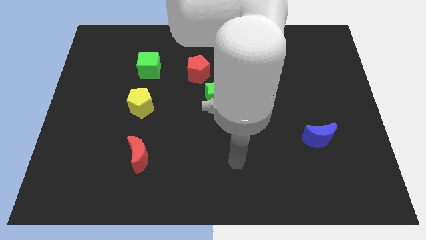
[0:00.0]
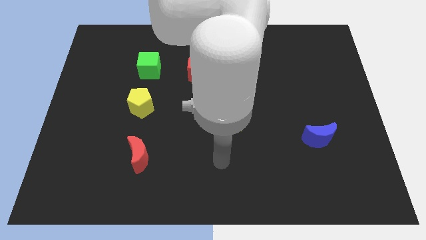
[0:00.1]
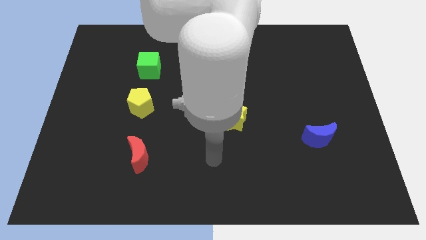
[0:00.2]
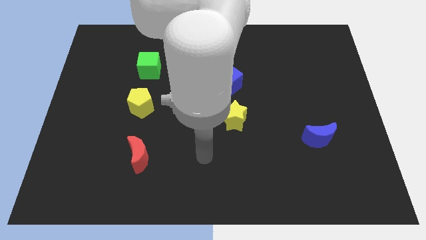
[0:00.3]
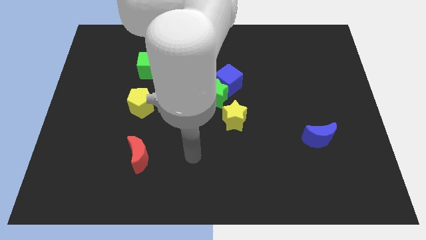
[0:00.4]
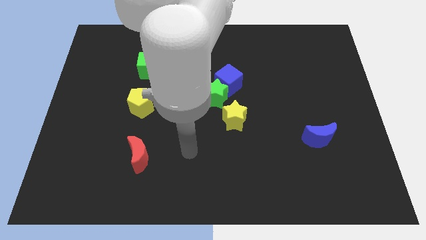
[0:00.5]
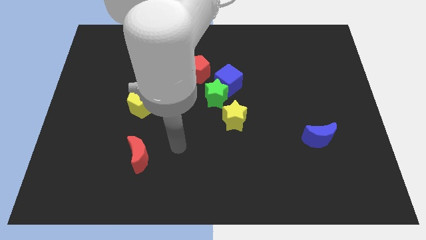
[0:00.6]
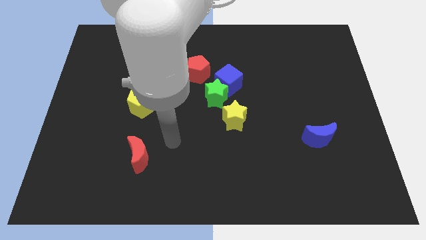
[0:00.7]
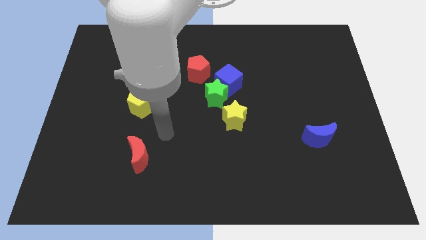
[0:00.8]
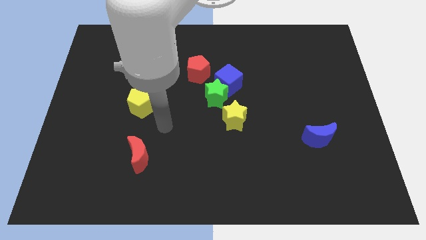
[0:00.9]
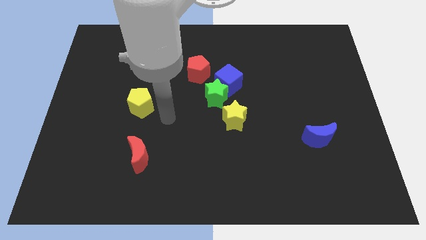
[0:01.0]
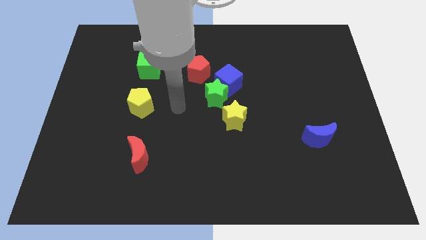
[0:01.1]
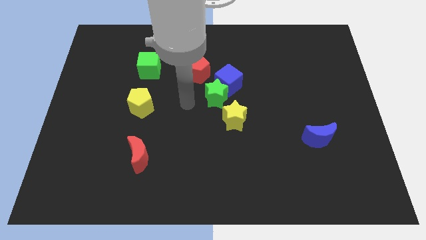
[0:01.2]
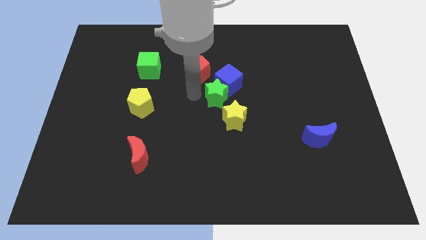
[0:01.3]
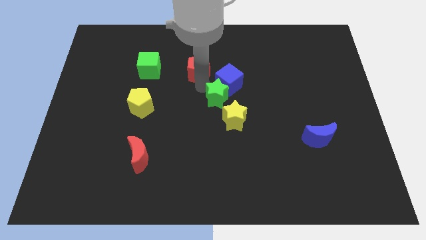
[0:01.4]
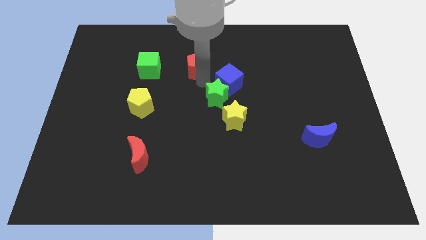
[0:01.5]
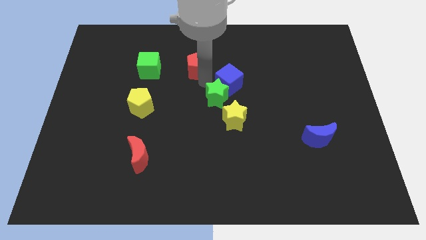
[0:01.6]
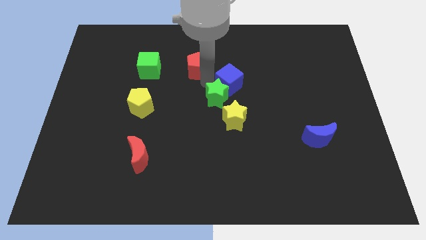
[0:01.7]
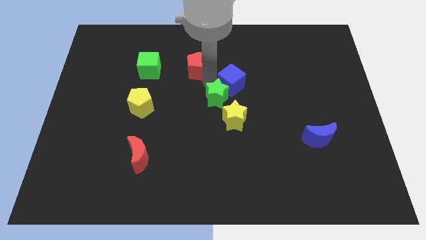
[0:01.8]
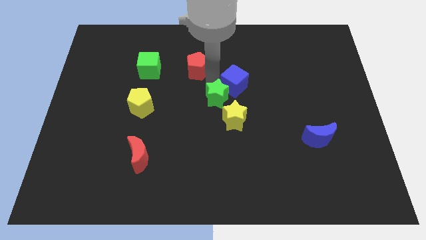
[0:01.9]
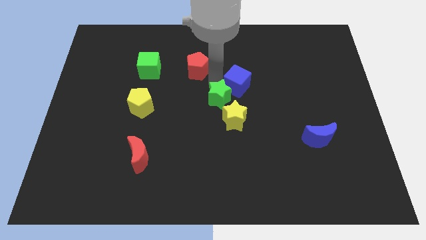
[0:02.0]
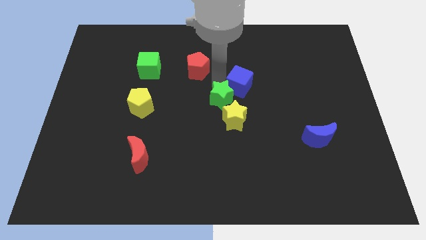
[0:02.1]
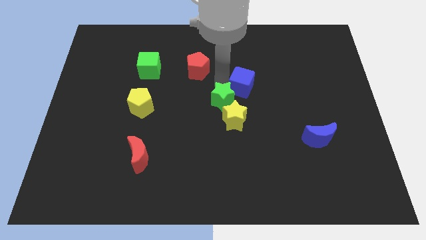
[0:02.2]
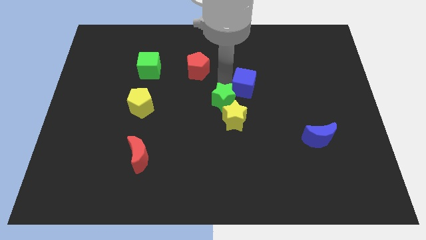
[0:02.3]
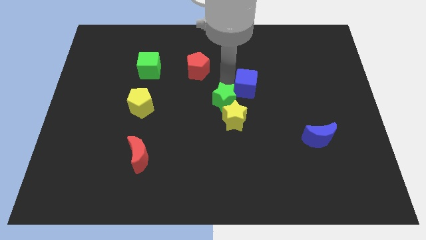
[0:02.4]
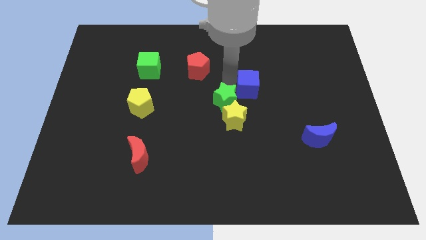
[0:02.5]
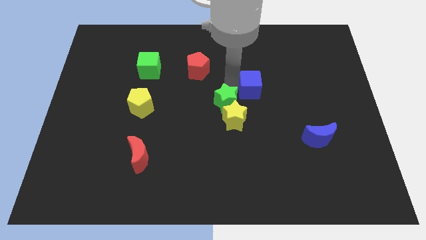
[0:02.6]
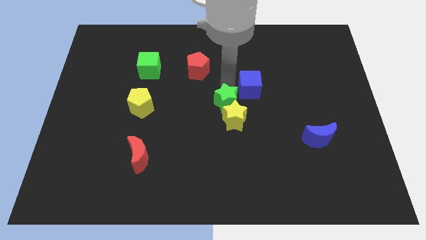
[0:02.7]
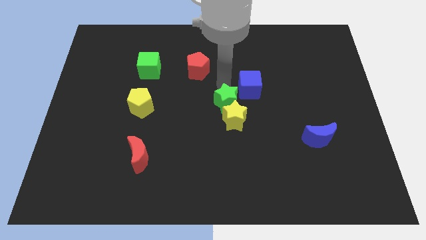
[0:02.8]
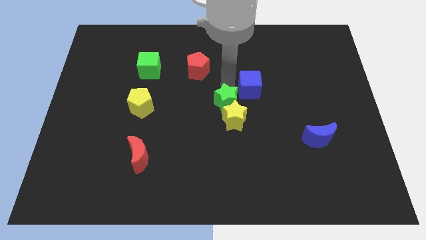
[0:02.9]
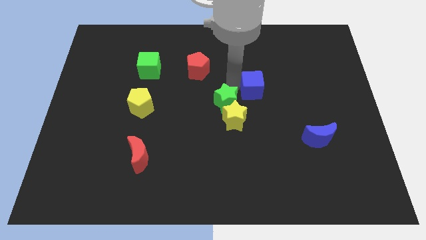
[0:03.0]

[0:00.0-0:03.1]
separate the blue cube from the green star and red pentagon

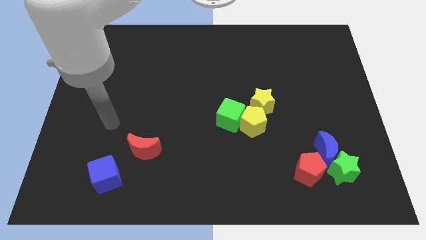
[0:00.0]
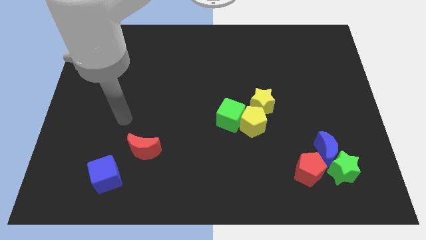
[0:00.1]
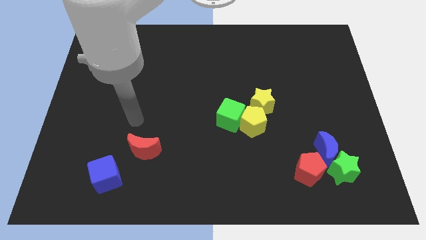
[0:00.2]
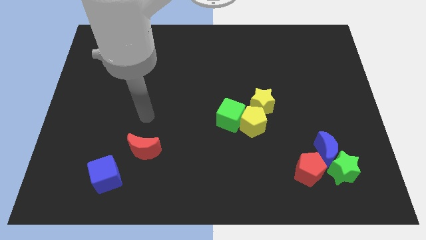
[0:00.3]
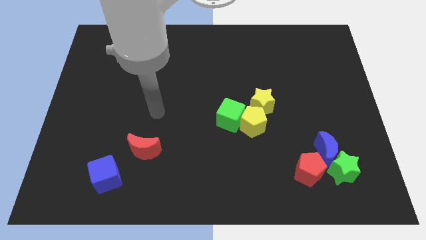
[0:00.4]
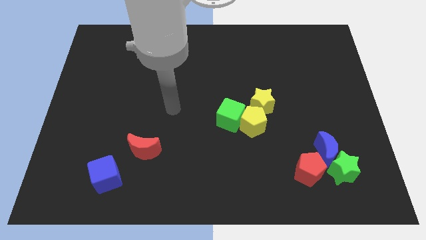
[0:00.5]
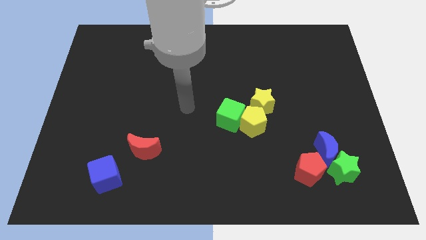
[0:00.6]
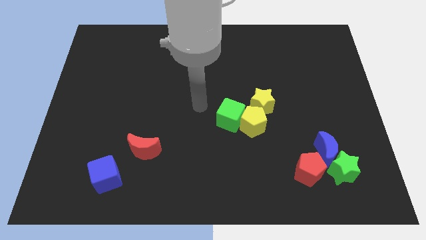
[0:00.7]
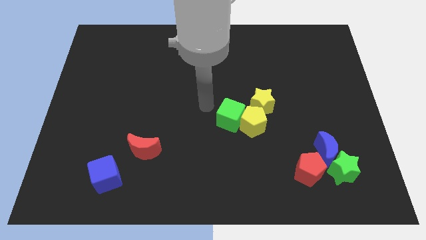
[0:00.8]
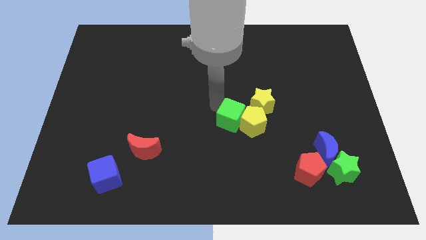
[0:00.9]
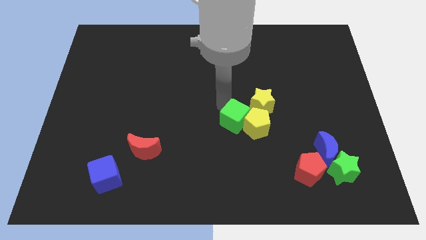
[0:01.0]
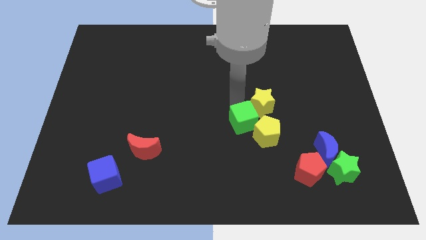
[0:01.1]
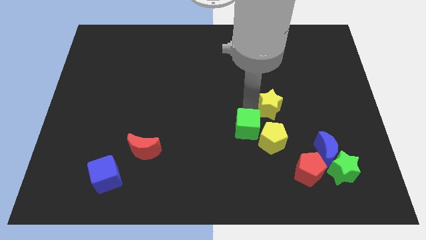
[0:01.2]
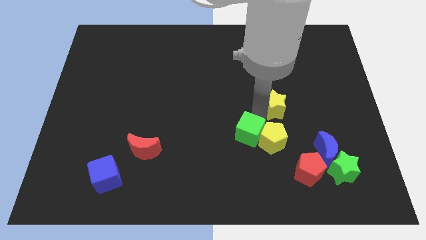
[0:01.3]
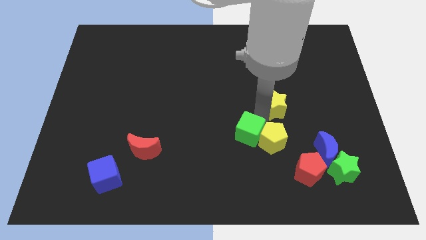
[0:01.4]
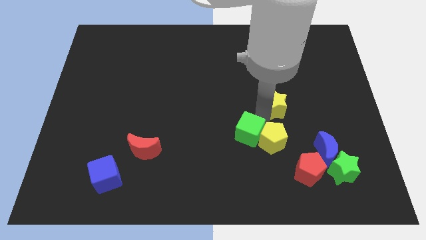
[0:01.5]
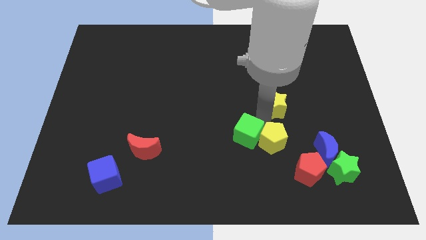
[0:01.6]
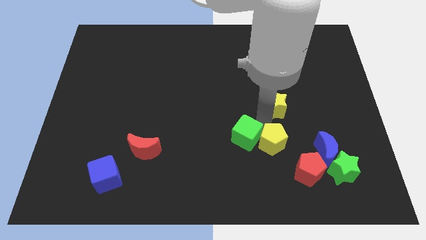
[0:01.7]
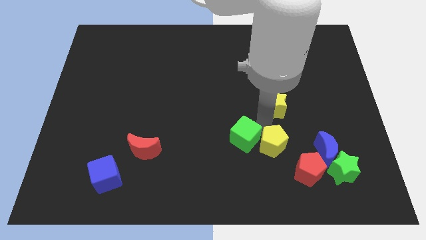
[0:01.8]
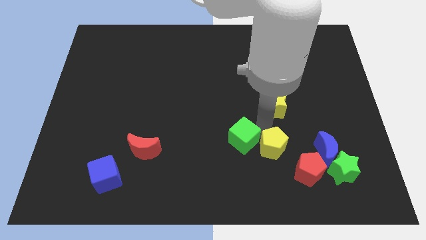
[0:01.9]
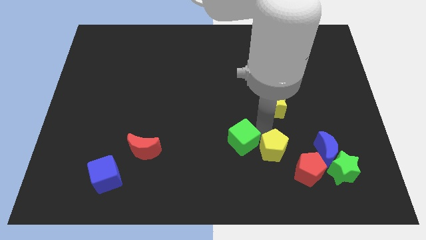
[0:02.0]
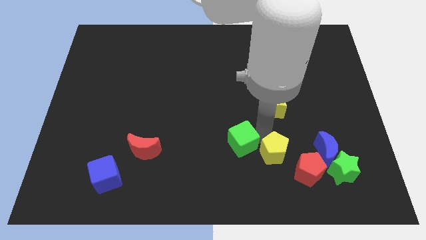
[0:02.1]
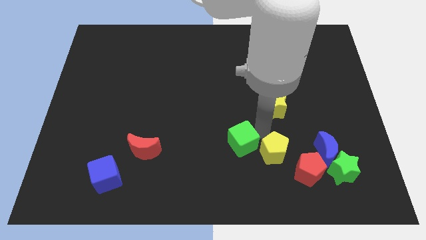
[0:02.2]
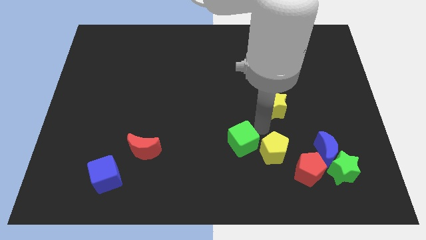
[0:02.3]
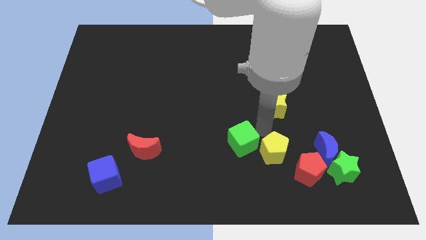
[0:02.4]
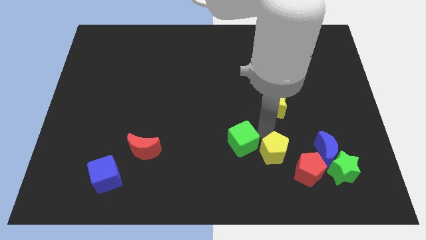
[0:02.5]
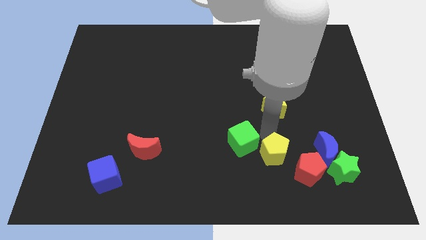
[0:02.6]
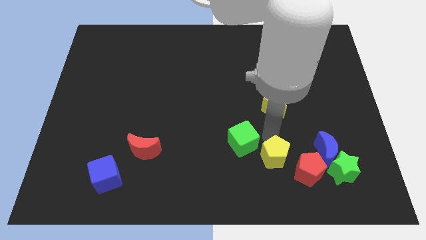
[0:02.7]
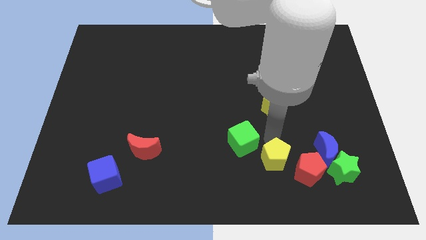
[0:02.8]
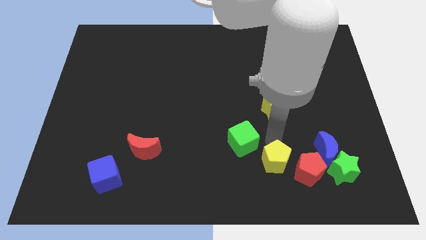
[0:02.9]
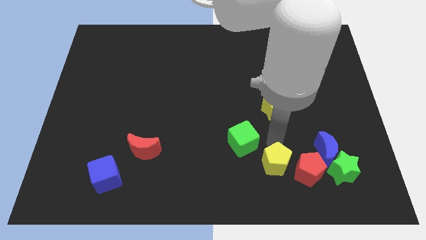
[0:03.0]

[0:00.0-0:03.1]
separate the yellow pentagon from the green cube and yellow star

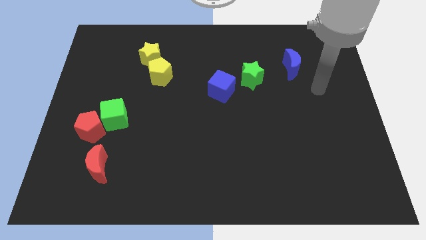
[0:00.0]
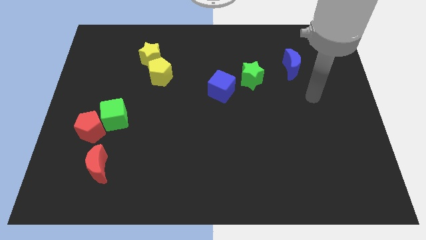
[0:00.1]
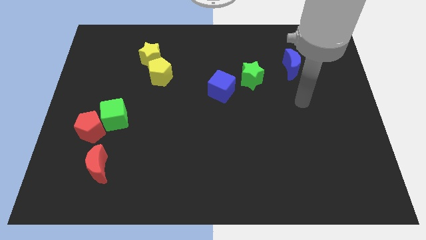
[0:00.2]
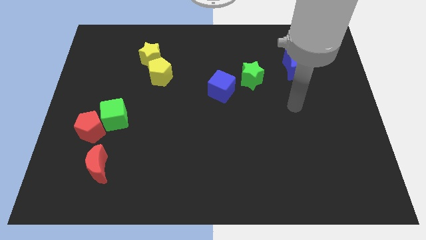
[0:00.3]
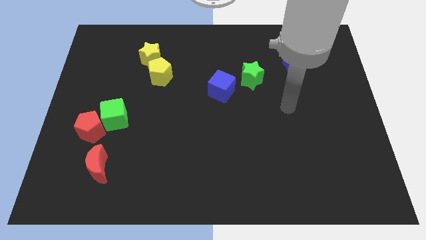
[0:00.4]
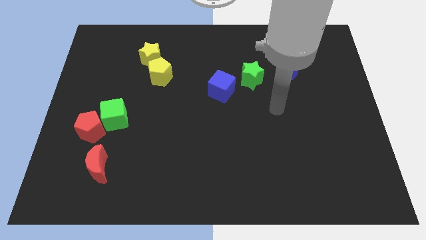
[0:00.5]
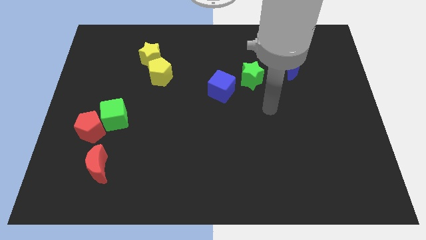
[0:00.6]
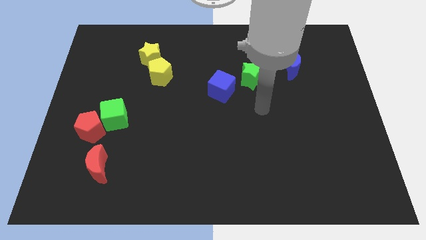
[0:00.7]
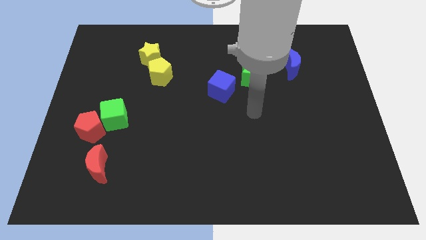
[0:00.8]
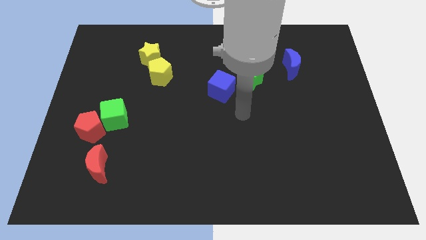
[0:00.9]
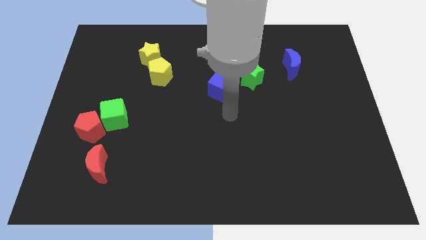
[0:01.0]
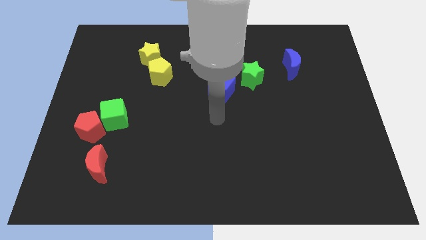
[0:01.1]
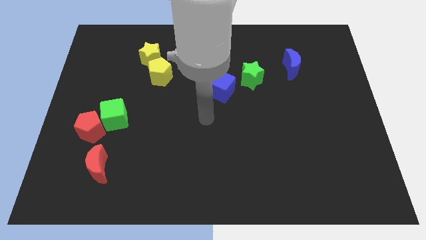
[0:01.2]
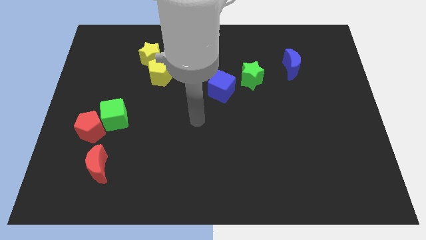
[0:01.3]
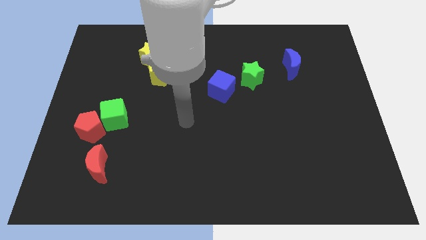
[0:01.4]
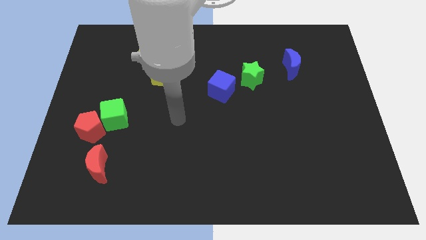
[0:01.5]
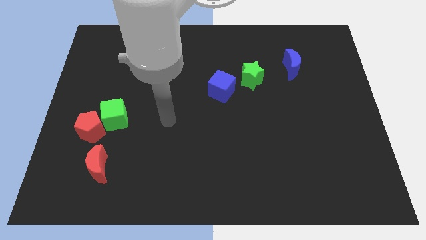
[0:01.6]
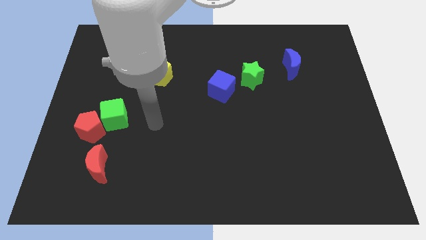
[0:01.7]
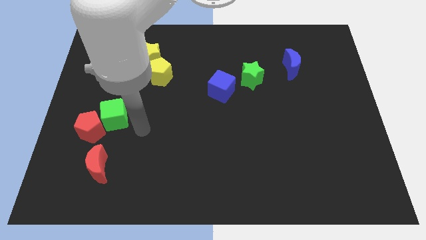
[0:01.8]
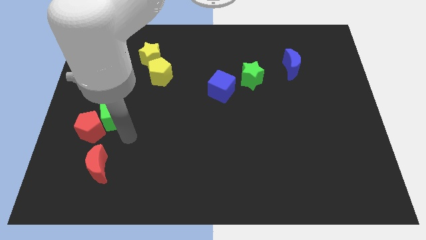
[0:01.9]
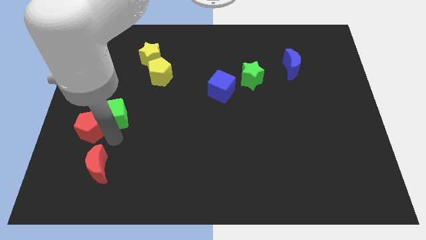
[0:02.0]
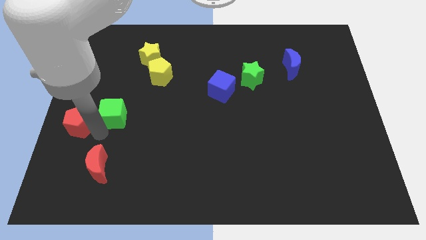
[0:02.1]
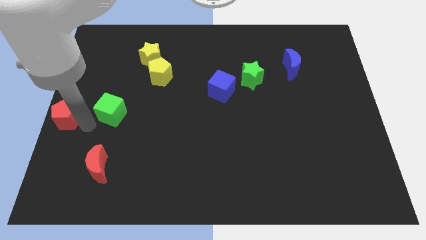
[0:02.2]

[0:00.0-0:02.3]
move the green cube away from the red pentagon

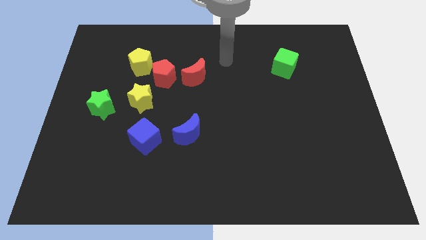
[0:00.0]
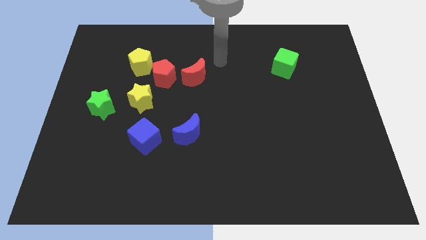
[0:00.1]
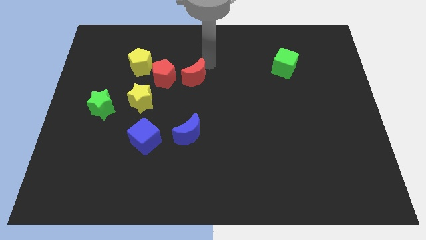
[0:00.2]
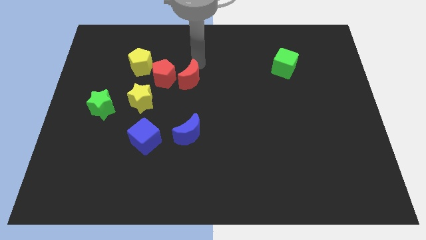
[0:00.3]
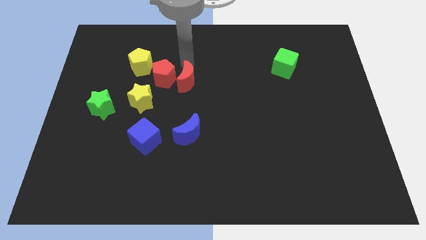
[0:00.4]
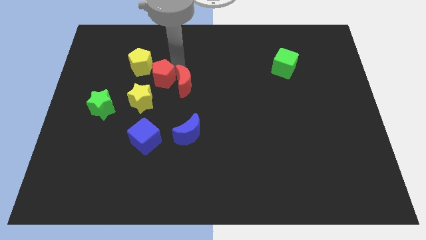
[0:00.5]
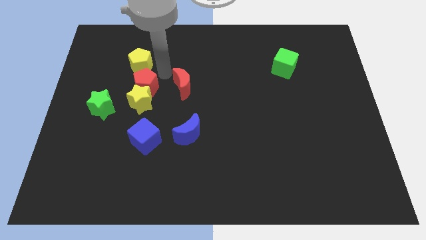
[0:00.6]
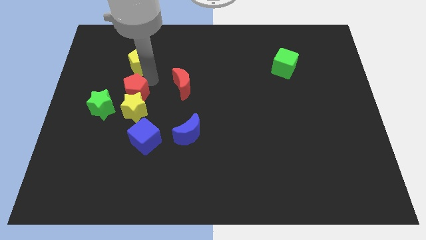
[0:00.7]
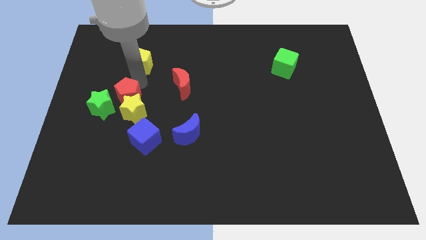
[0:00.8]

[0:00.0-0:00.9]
pull the yellow pentagon apart from the red pentagon
